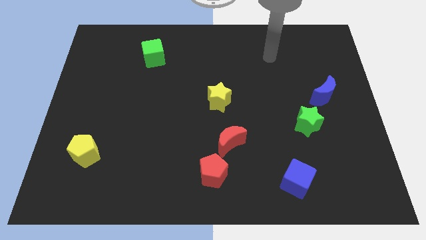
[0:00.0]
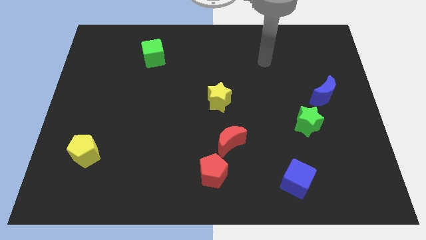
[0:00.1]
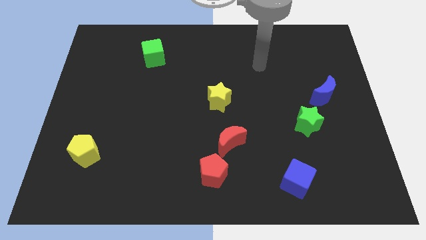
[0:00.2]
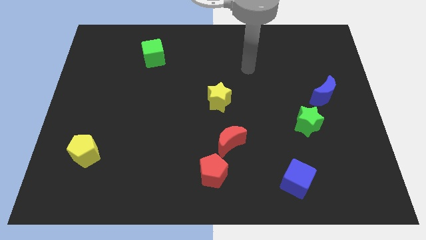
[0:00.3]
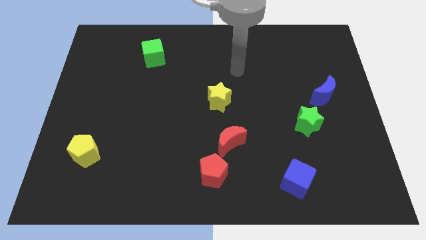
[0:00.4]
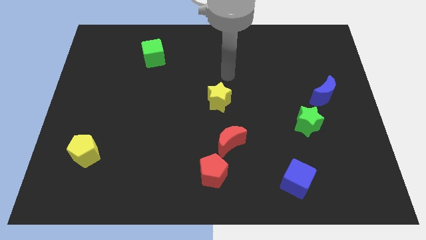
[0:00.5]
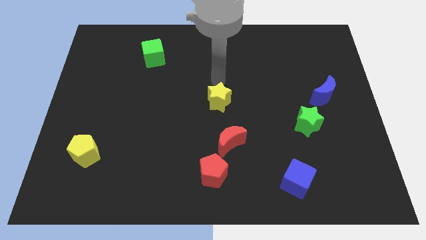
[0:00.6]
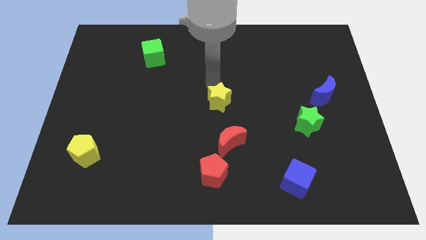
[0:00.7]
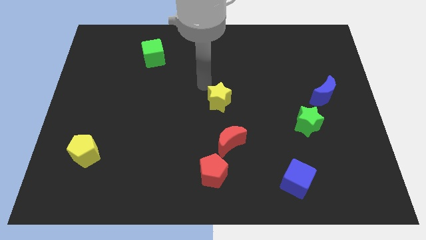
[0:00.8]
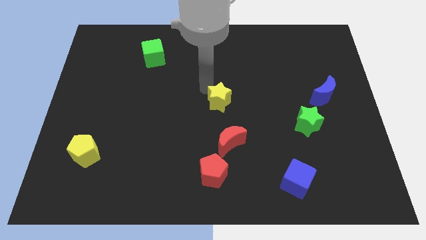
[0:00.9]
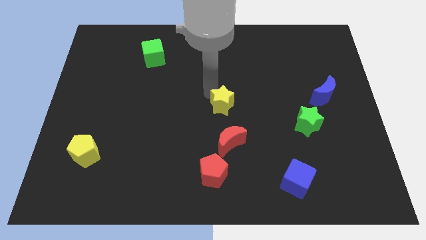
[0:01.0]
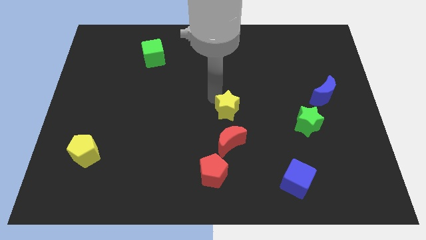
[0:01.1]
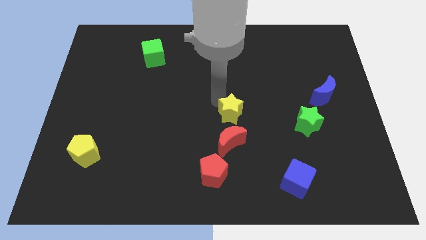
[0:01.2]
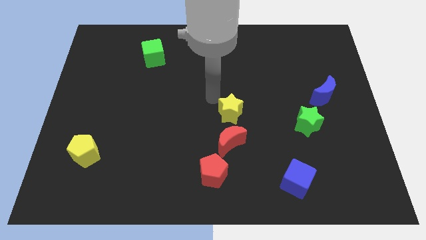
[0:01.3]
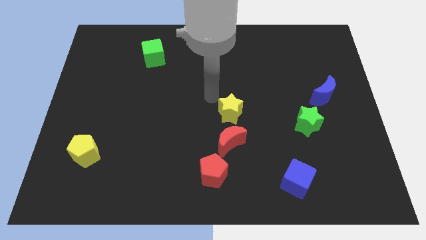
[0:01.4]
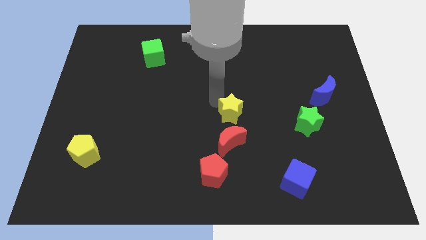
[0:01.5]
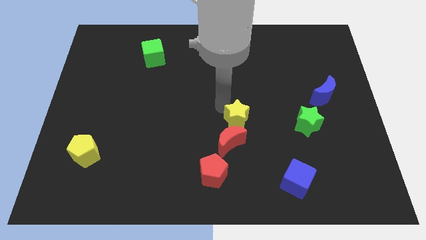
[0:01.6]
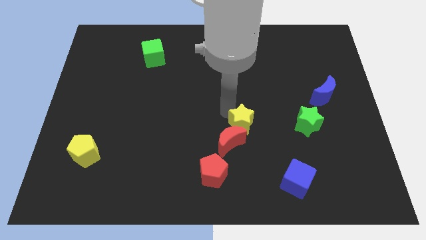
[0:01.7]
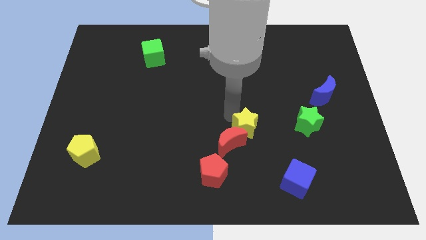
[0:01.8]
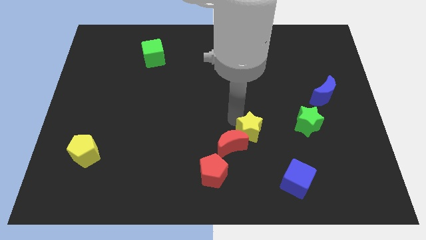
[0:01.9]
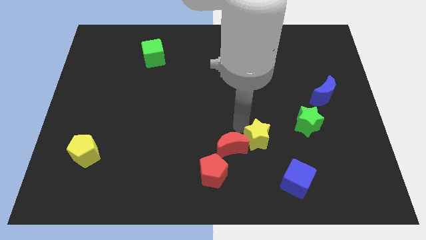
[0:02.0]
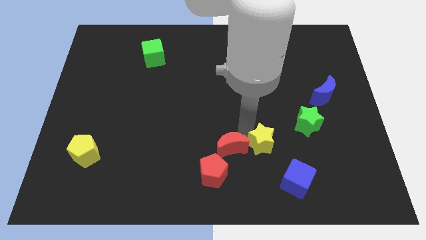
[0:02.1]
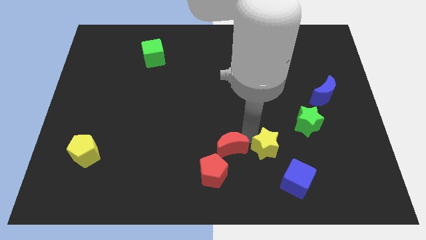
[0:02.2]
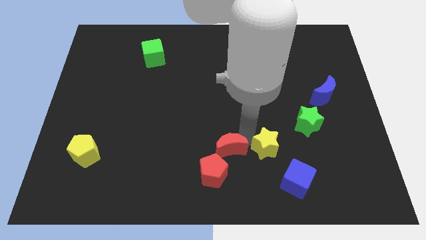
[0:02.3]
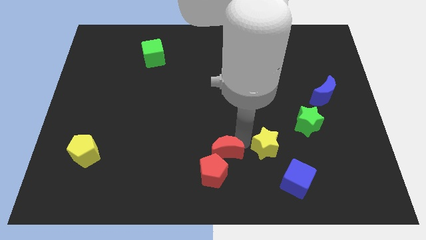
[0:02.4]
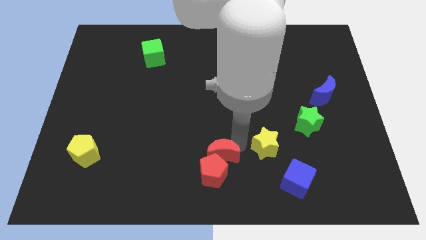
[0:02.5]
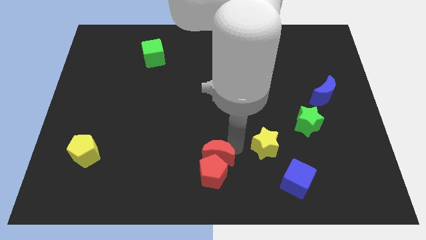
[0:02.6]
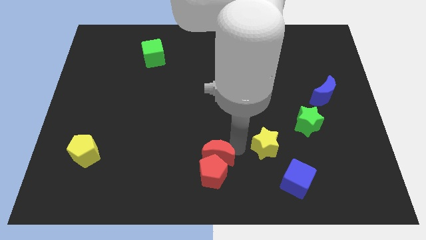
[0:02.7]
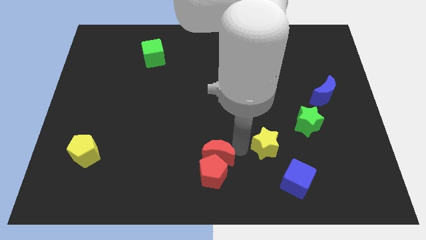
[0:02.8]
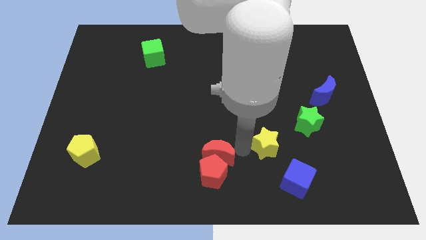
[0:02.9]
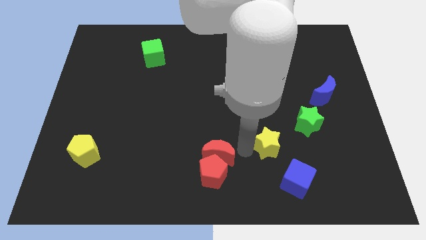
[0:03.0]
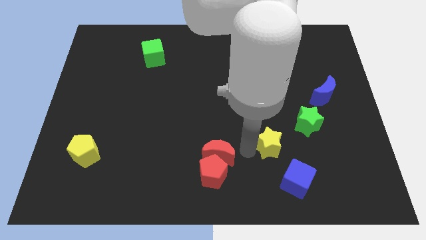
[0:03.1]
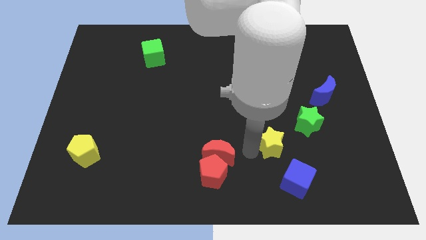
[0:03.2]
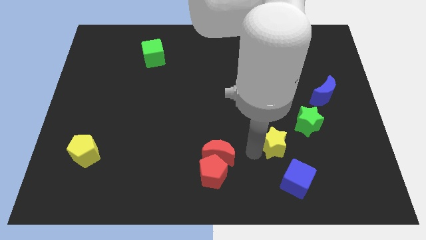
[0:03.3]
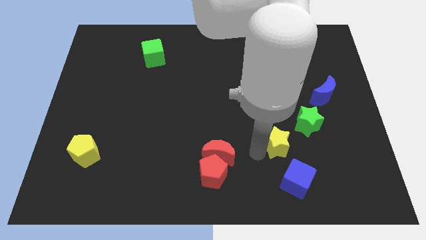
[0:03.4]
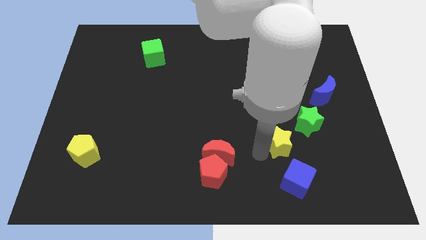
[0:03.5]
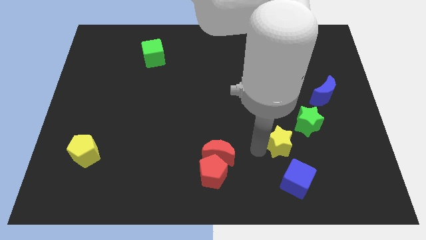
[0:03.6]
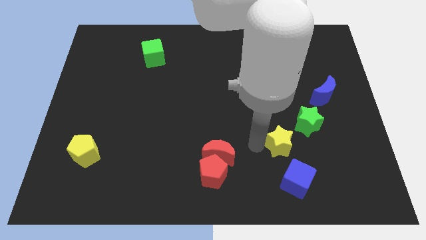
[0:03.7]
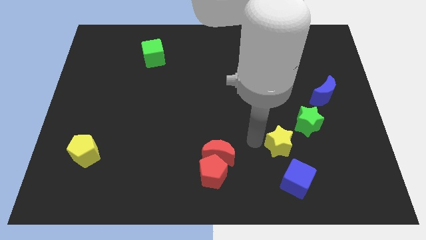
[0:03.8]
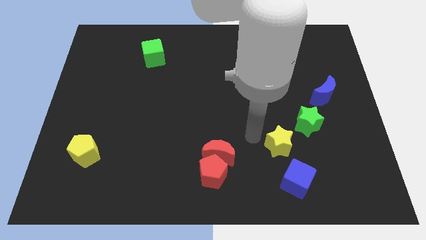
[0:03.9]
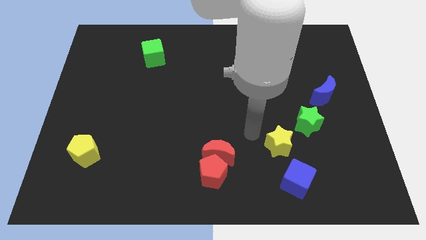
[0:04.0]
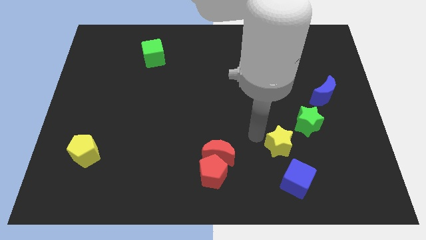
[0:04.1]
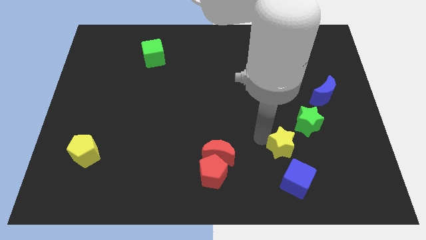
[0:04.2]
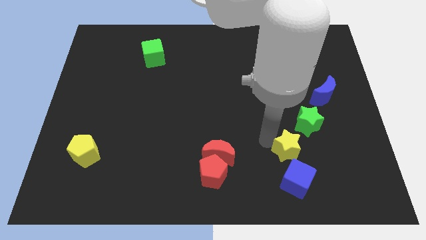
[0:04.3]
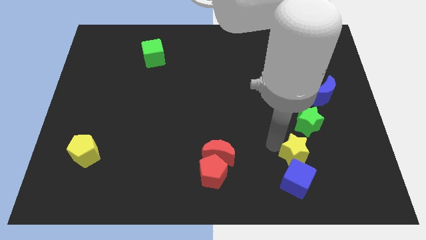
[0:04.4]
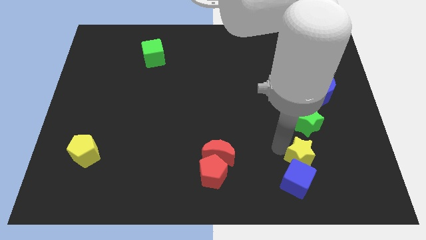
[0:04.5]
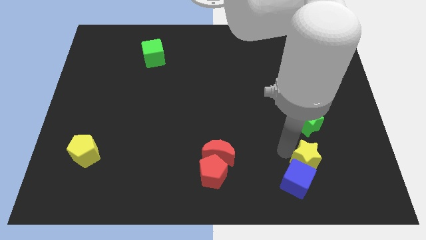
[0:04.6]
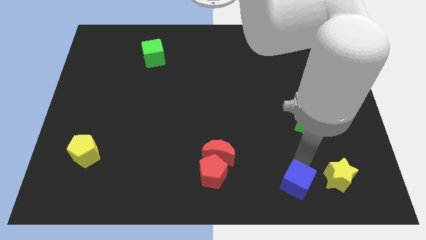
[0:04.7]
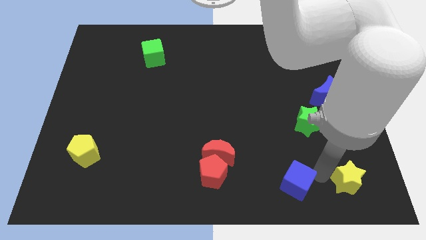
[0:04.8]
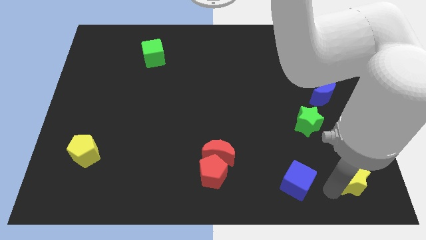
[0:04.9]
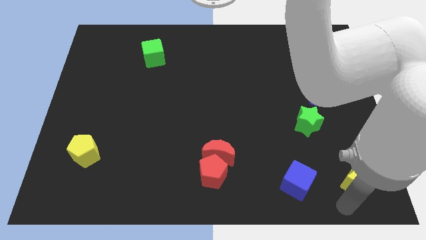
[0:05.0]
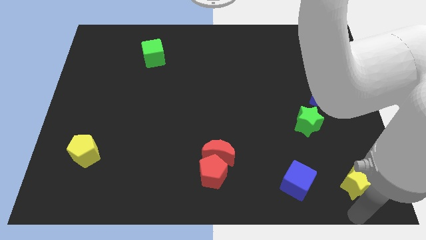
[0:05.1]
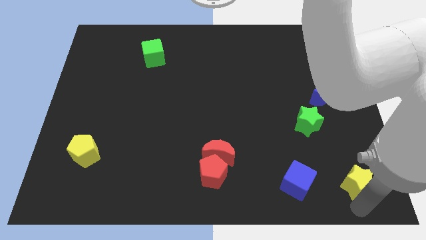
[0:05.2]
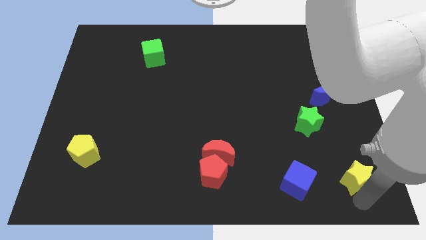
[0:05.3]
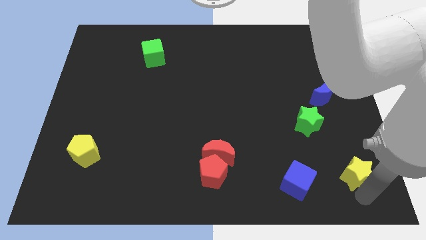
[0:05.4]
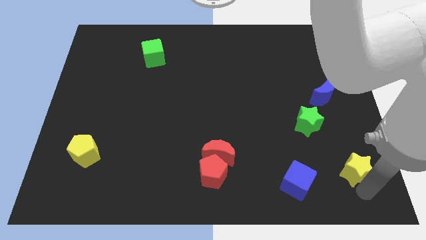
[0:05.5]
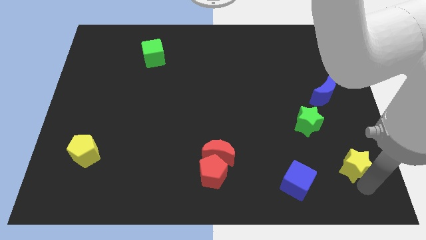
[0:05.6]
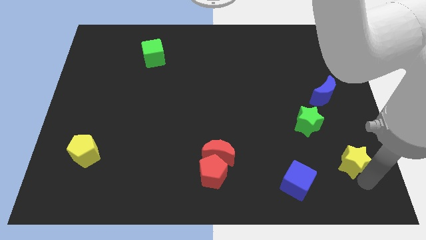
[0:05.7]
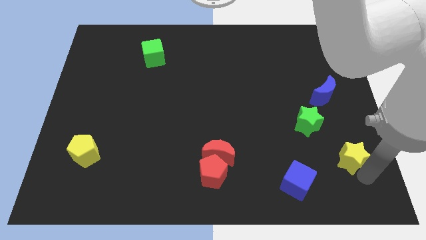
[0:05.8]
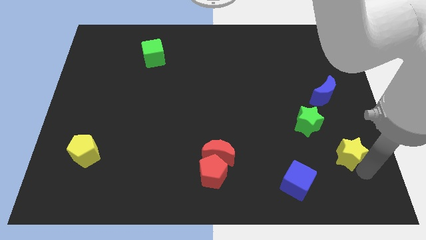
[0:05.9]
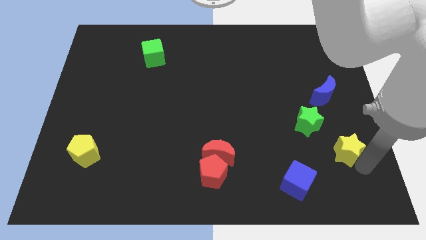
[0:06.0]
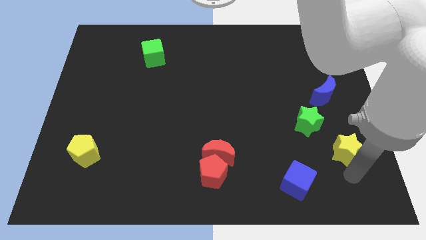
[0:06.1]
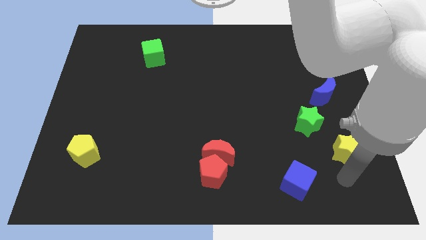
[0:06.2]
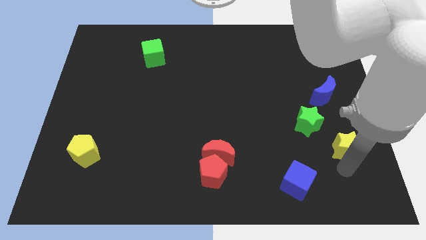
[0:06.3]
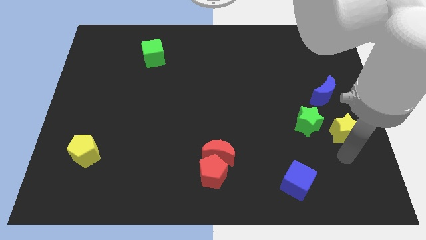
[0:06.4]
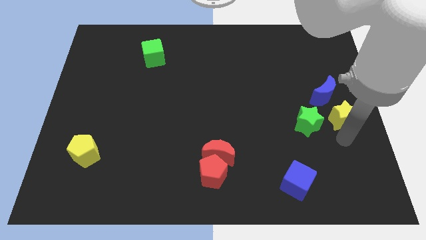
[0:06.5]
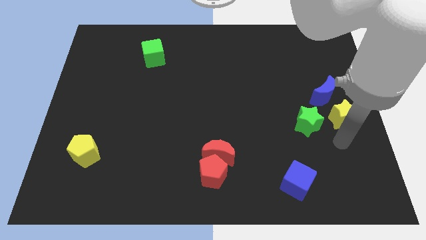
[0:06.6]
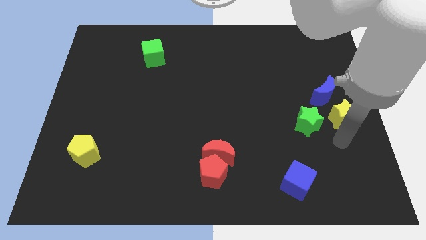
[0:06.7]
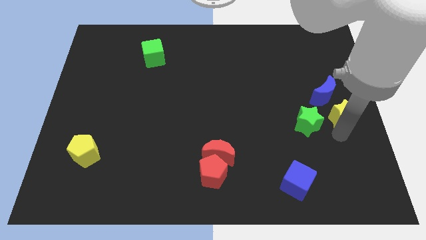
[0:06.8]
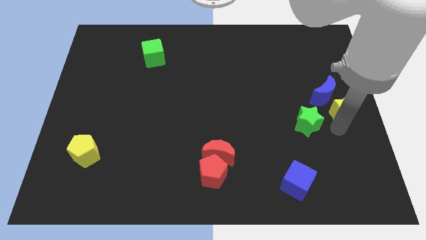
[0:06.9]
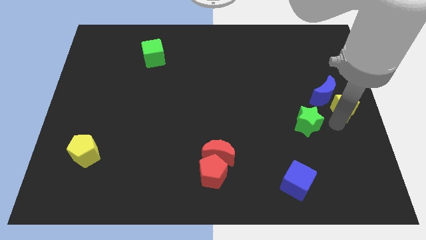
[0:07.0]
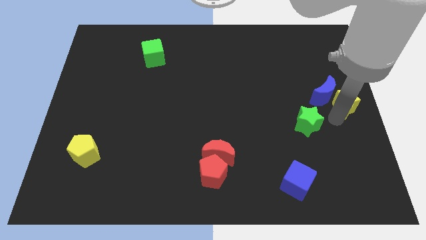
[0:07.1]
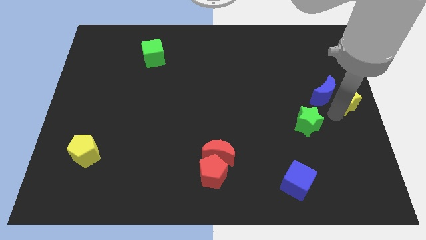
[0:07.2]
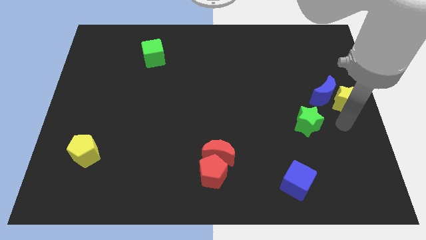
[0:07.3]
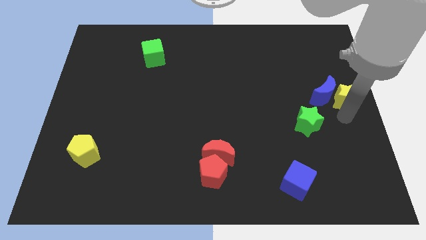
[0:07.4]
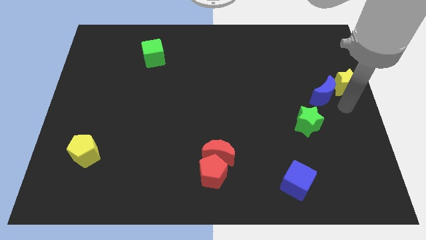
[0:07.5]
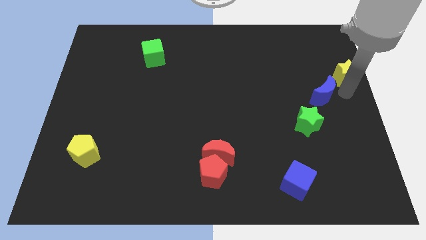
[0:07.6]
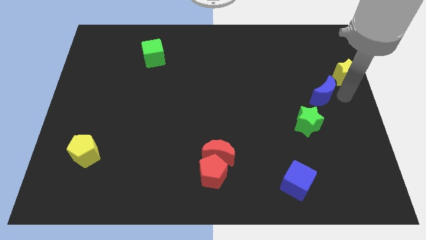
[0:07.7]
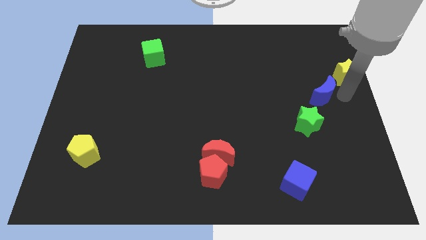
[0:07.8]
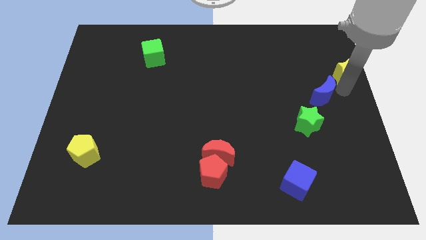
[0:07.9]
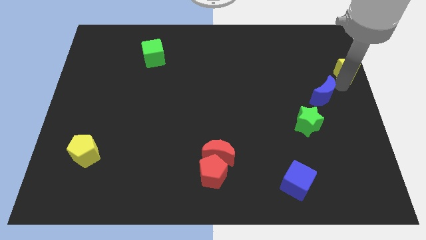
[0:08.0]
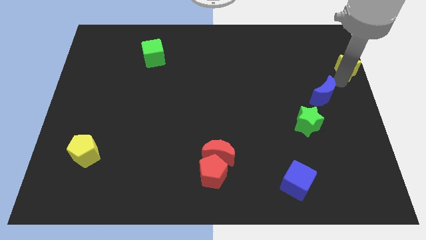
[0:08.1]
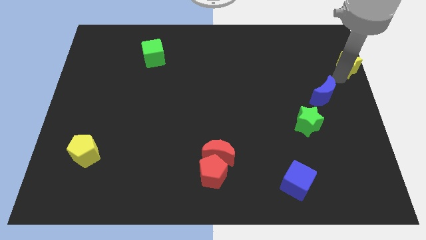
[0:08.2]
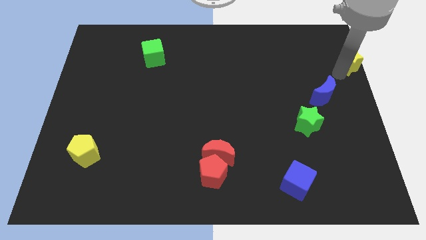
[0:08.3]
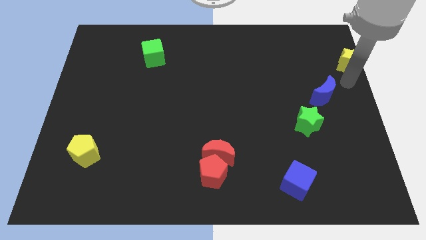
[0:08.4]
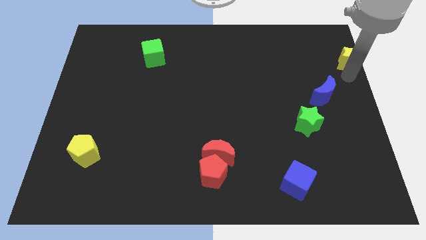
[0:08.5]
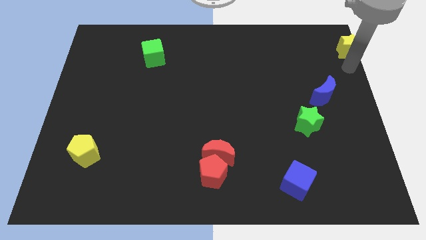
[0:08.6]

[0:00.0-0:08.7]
put the yellow star to the upper right corner
